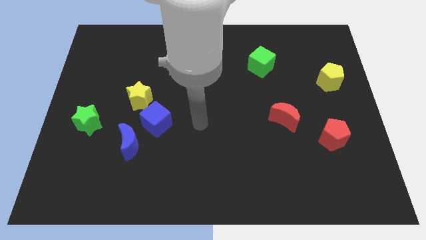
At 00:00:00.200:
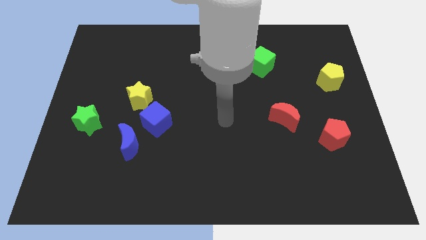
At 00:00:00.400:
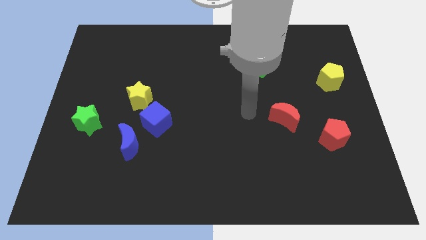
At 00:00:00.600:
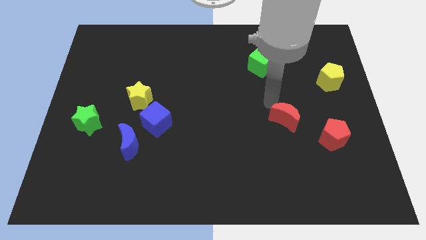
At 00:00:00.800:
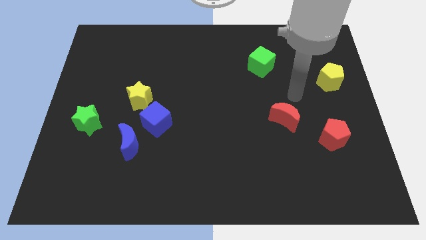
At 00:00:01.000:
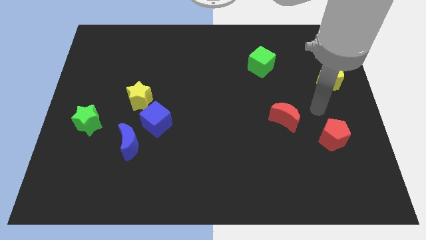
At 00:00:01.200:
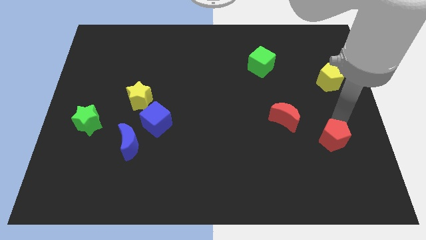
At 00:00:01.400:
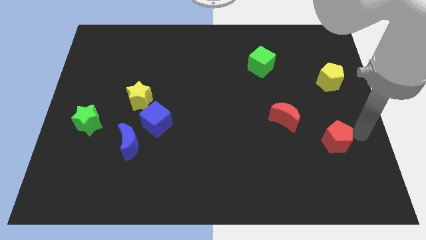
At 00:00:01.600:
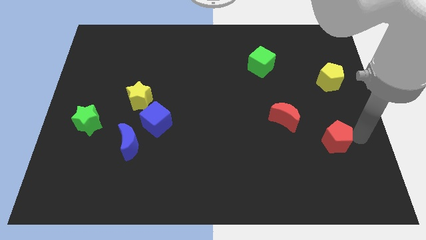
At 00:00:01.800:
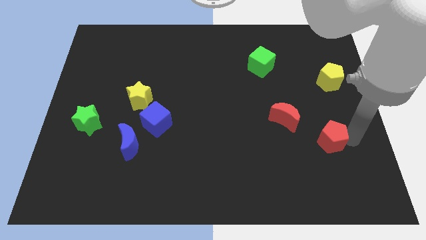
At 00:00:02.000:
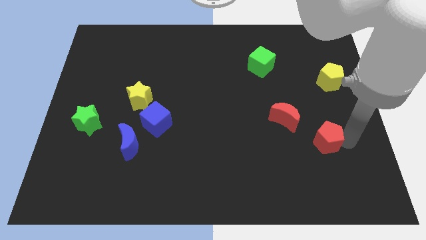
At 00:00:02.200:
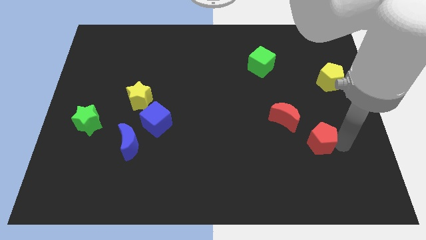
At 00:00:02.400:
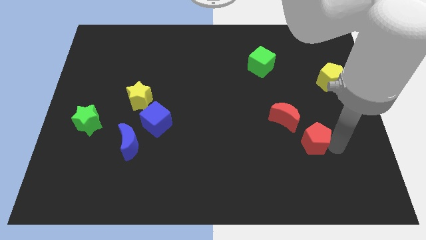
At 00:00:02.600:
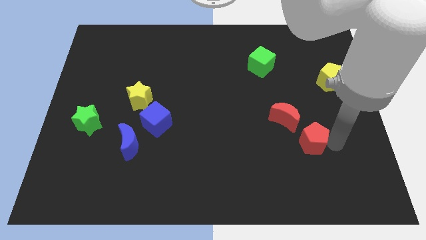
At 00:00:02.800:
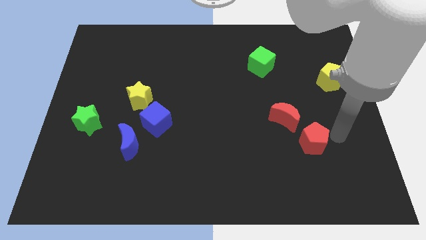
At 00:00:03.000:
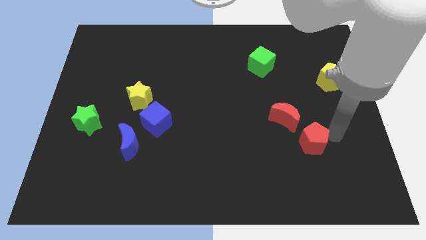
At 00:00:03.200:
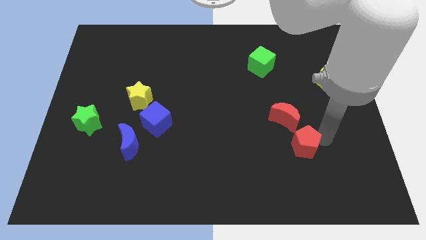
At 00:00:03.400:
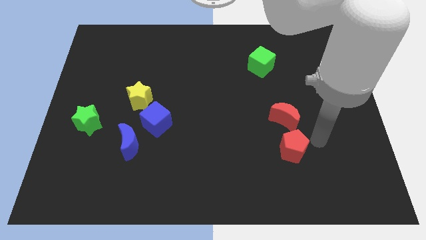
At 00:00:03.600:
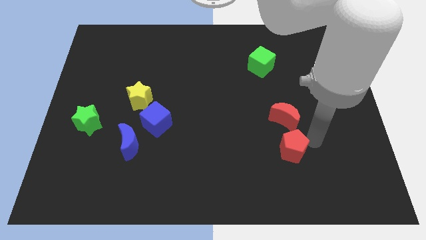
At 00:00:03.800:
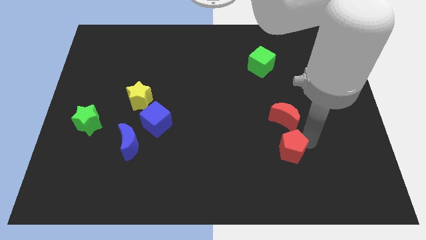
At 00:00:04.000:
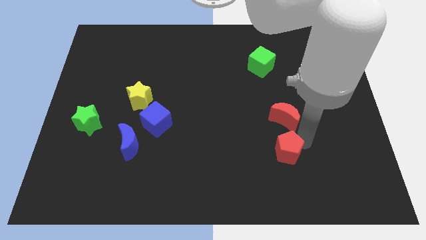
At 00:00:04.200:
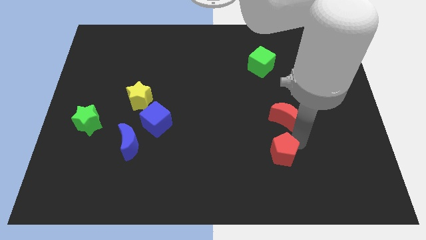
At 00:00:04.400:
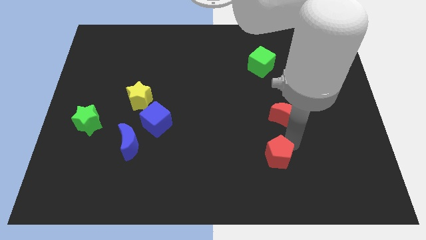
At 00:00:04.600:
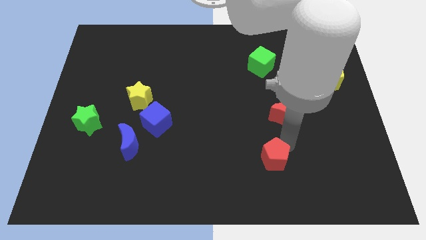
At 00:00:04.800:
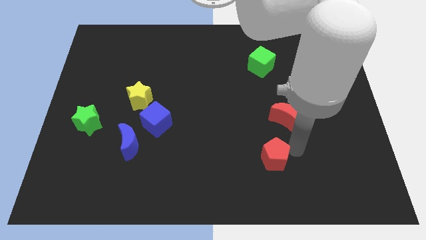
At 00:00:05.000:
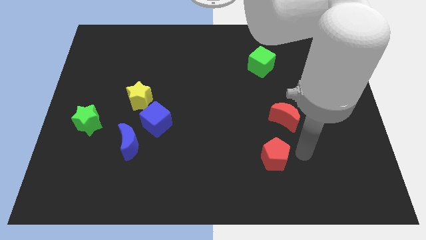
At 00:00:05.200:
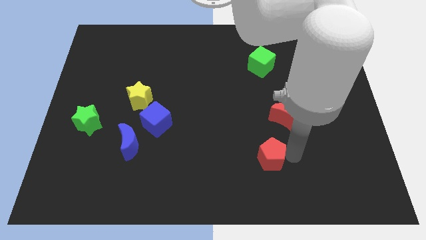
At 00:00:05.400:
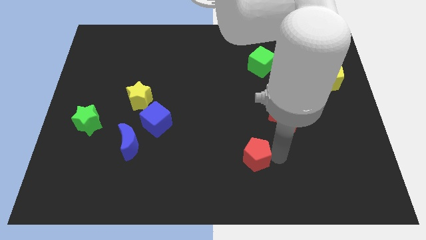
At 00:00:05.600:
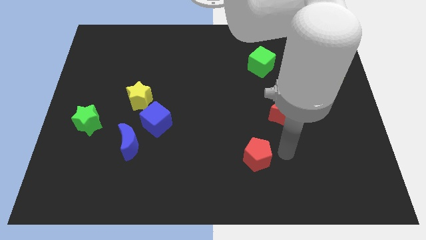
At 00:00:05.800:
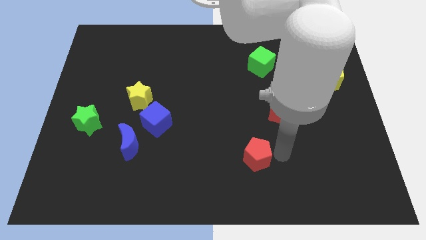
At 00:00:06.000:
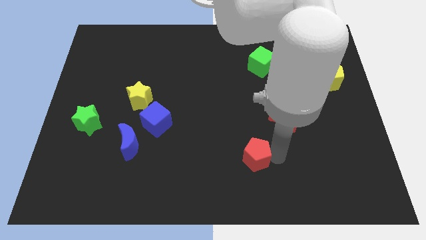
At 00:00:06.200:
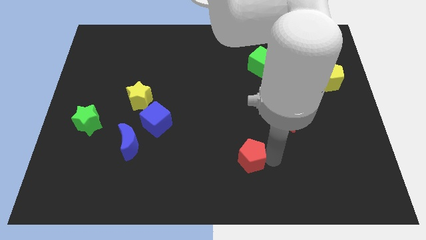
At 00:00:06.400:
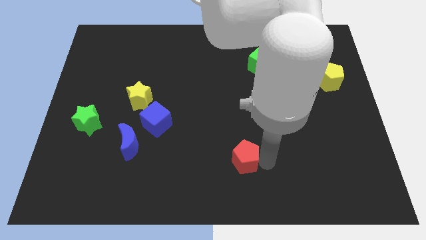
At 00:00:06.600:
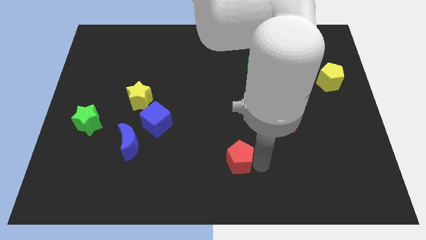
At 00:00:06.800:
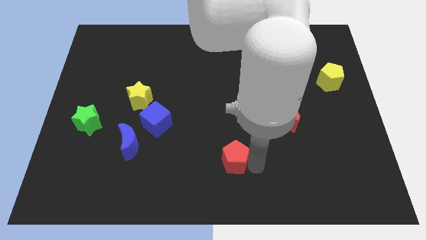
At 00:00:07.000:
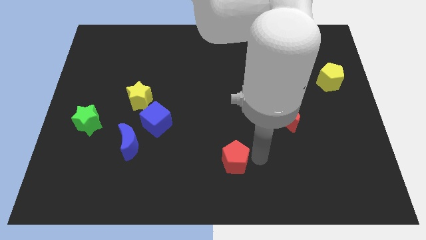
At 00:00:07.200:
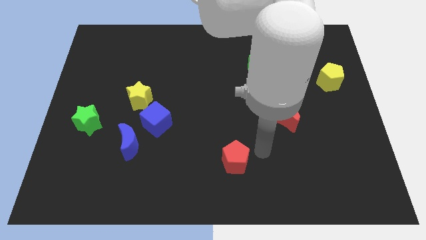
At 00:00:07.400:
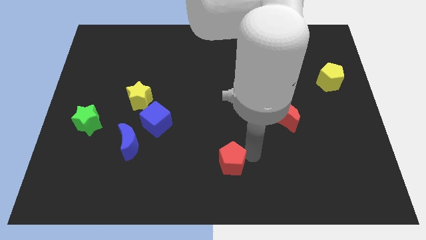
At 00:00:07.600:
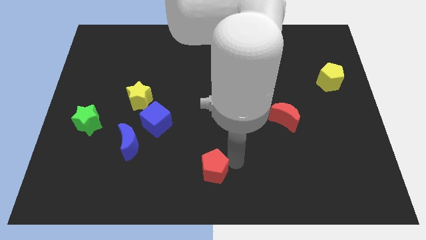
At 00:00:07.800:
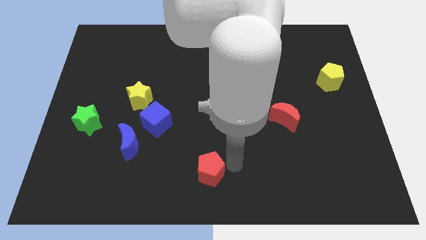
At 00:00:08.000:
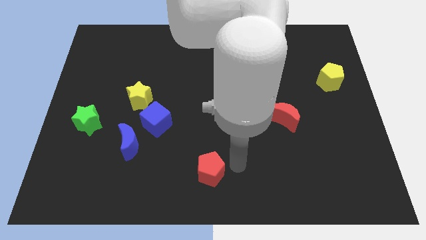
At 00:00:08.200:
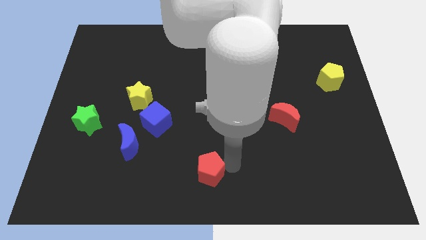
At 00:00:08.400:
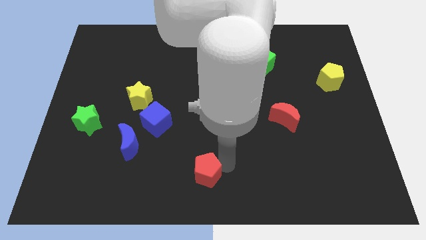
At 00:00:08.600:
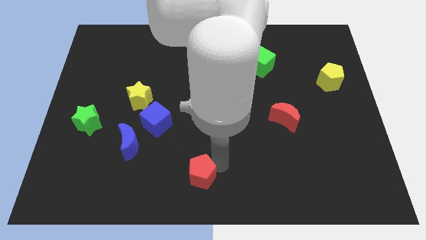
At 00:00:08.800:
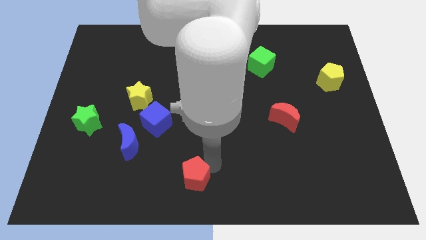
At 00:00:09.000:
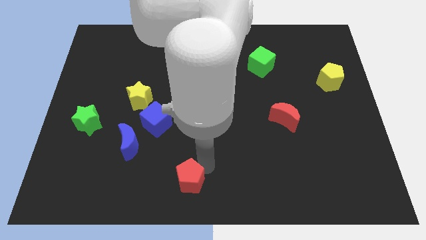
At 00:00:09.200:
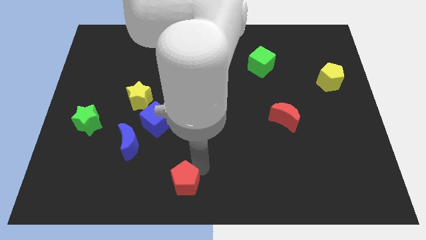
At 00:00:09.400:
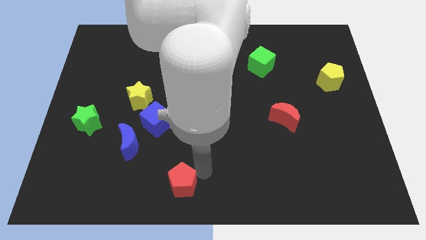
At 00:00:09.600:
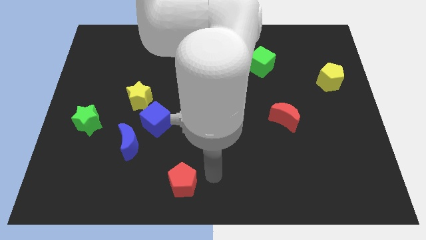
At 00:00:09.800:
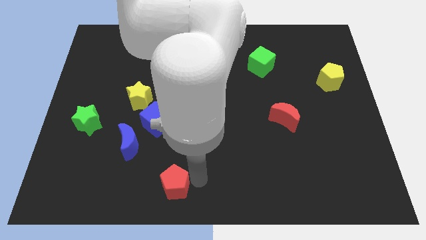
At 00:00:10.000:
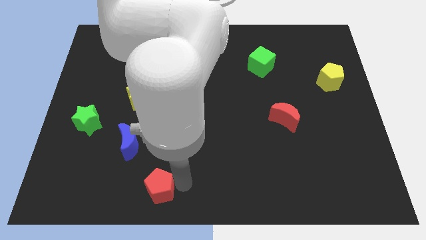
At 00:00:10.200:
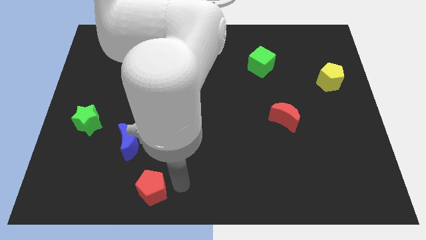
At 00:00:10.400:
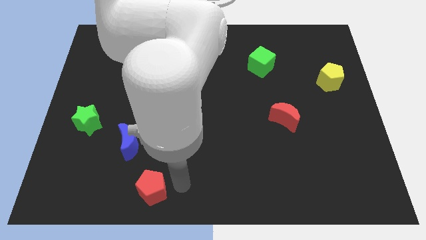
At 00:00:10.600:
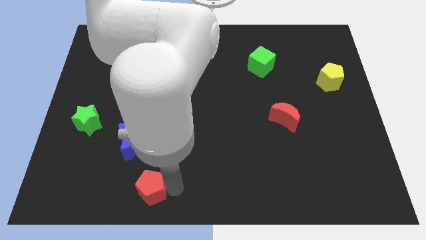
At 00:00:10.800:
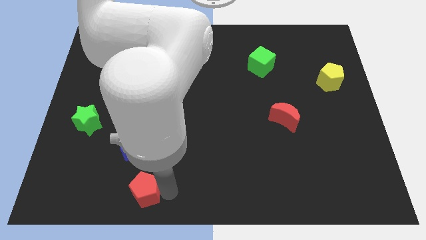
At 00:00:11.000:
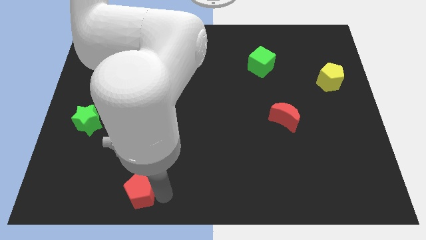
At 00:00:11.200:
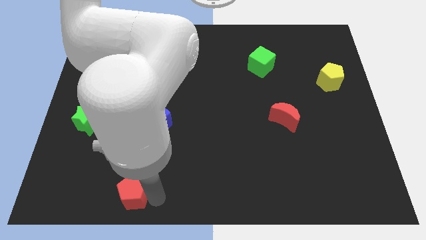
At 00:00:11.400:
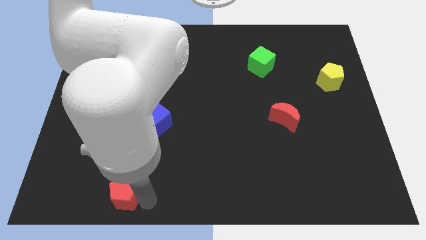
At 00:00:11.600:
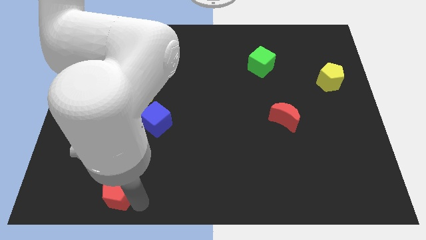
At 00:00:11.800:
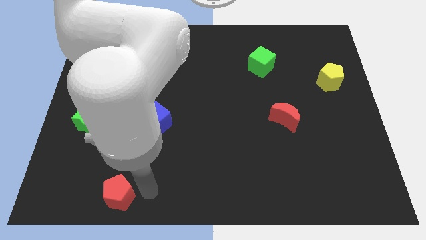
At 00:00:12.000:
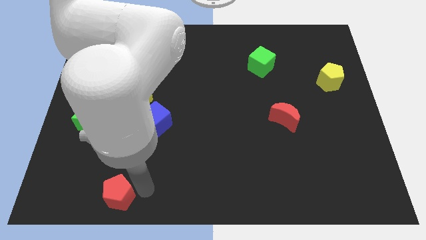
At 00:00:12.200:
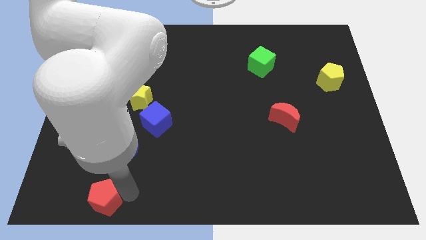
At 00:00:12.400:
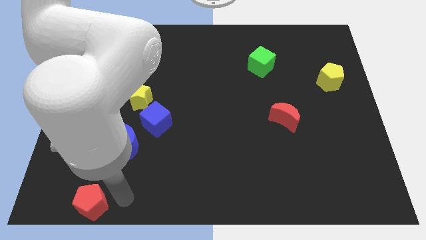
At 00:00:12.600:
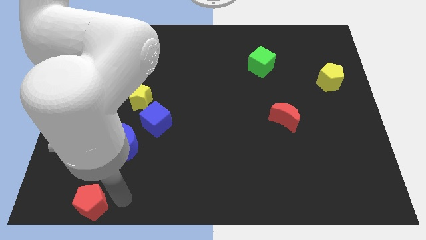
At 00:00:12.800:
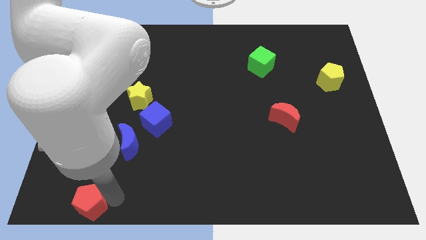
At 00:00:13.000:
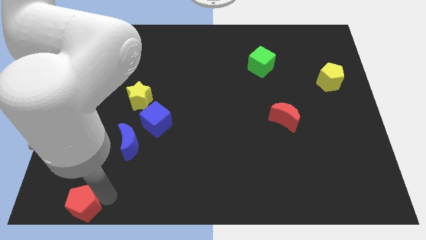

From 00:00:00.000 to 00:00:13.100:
put the red pentagon to the bottom left of the board
